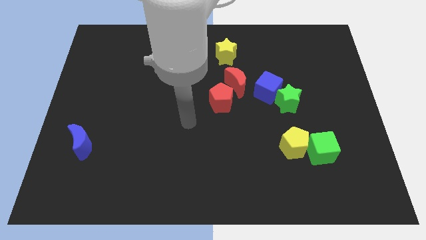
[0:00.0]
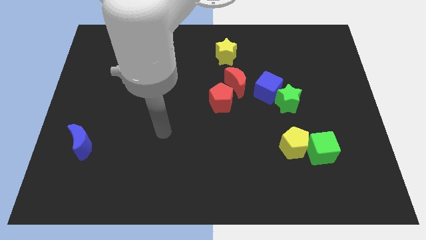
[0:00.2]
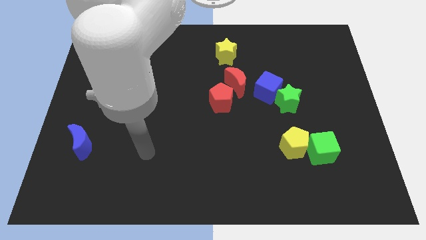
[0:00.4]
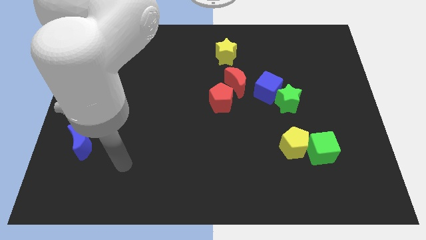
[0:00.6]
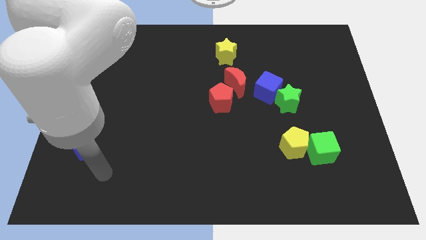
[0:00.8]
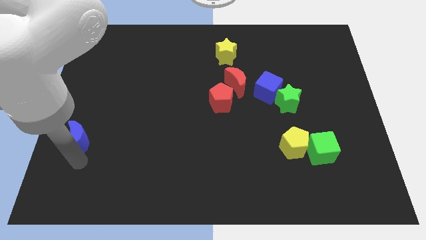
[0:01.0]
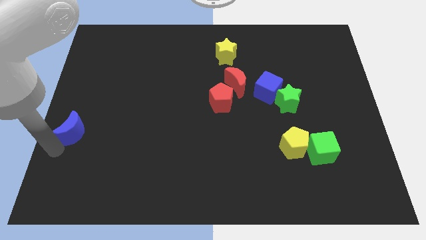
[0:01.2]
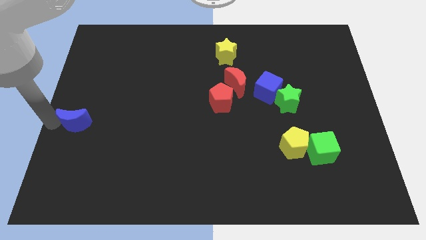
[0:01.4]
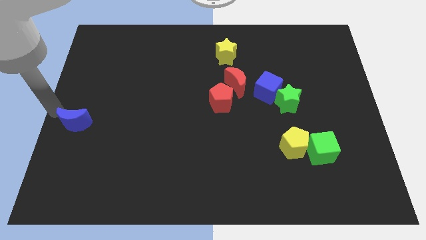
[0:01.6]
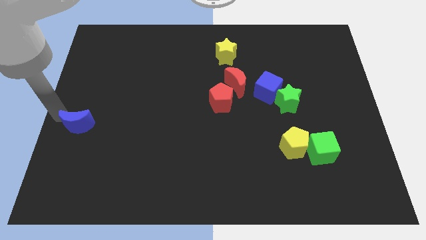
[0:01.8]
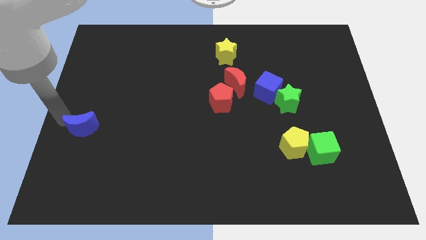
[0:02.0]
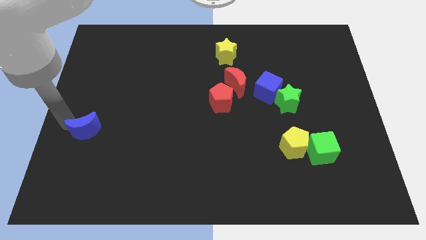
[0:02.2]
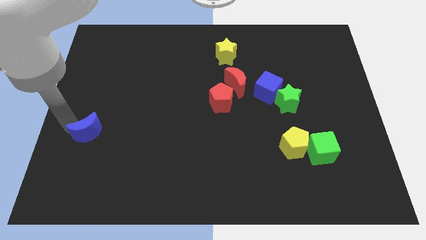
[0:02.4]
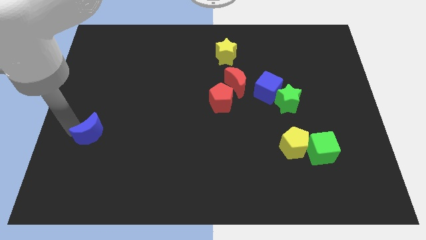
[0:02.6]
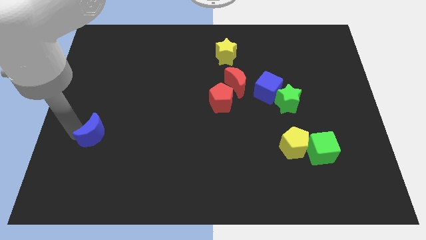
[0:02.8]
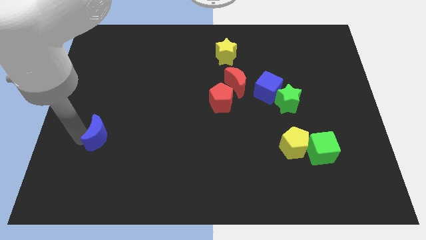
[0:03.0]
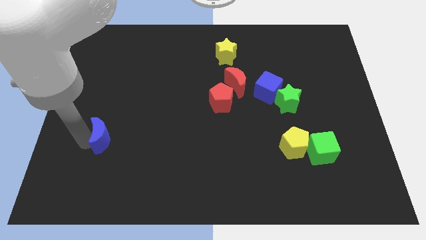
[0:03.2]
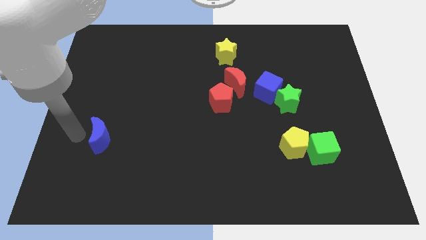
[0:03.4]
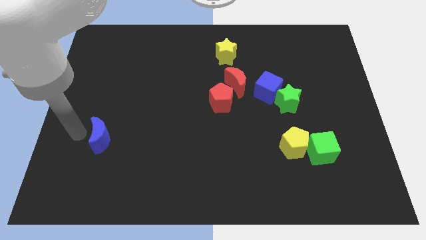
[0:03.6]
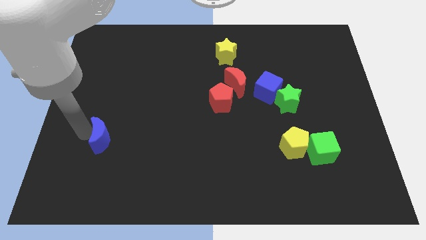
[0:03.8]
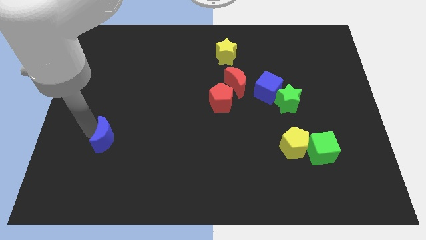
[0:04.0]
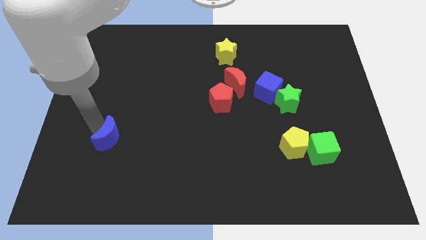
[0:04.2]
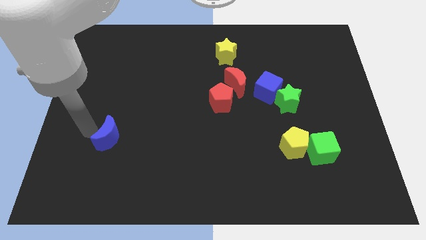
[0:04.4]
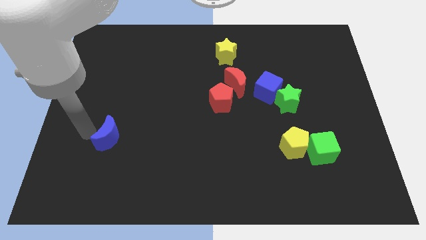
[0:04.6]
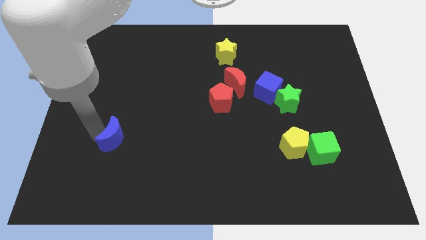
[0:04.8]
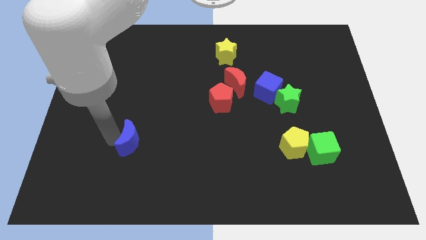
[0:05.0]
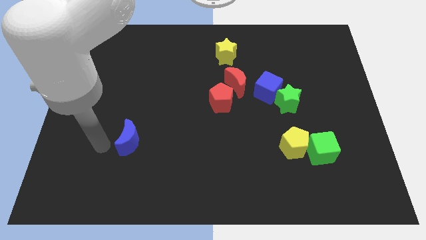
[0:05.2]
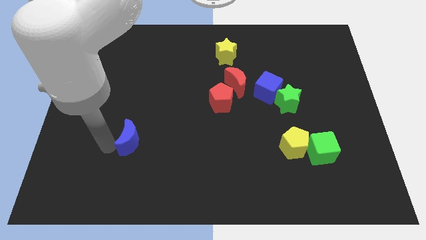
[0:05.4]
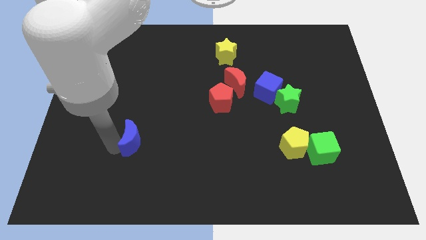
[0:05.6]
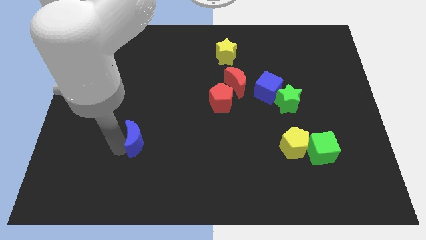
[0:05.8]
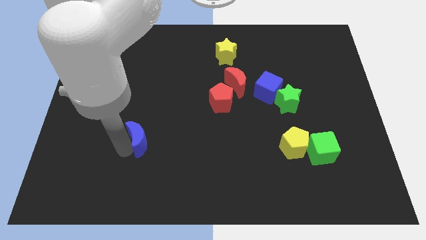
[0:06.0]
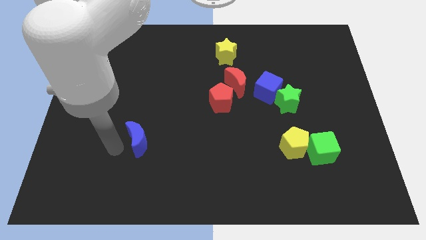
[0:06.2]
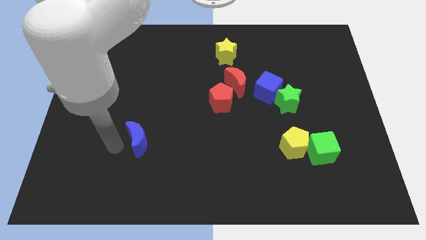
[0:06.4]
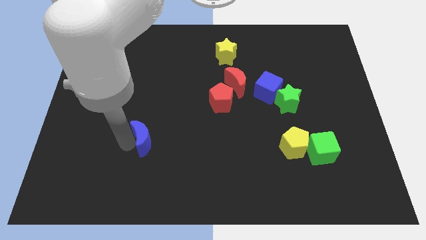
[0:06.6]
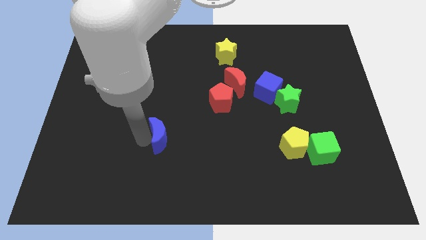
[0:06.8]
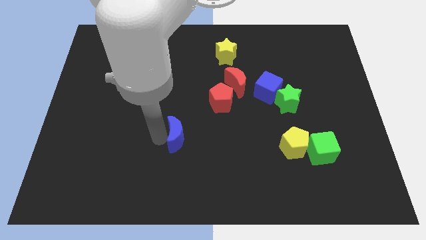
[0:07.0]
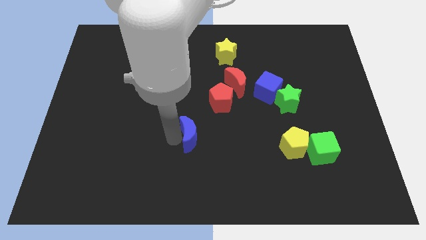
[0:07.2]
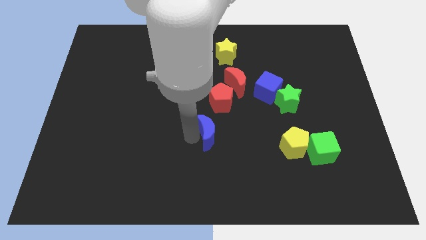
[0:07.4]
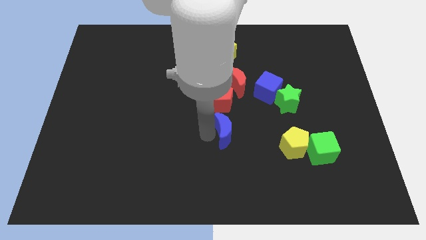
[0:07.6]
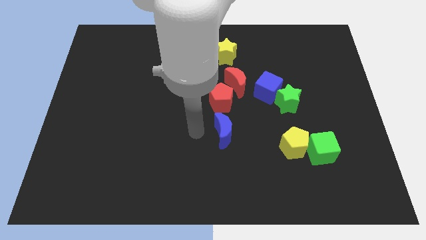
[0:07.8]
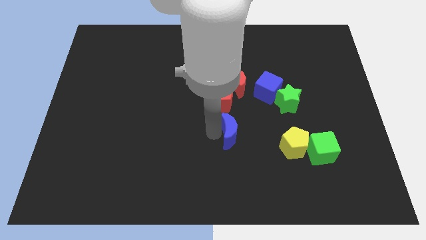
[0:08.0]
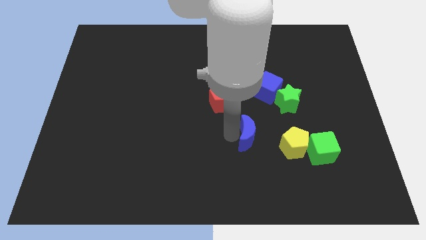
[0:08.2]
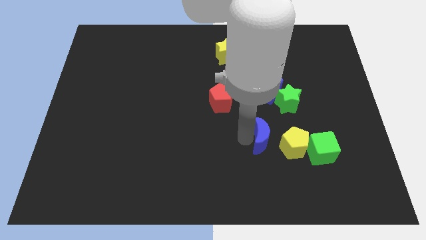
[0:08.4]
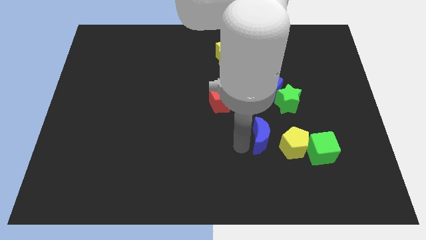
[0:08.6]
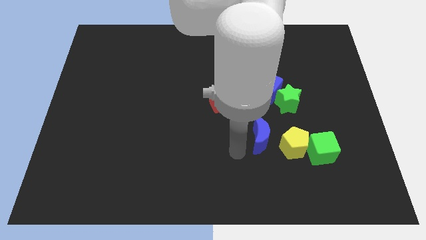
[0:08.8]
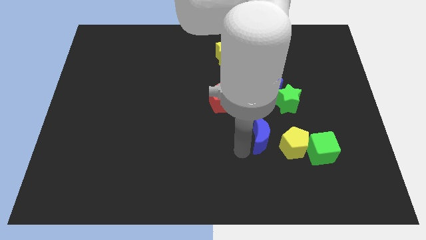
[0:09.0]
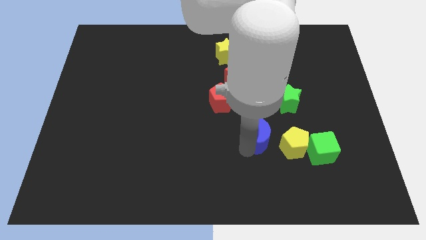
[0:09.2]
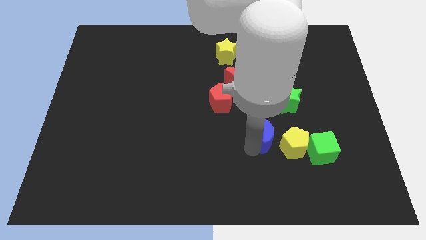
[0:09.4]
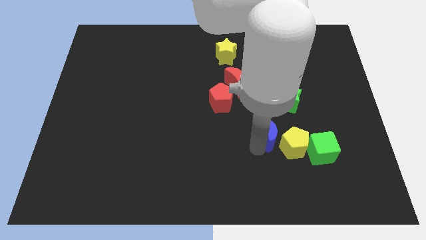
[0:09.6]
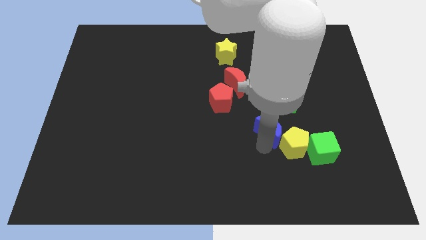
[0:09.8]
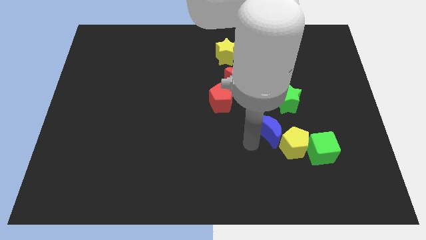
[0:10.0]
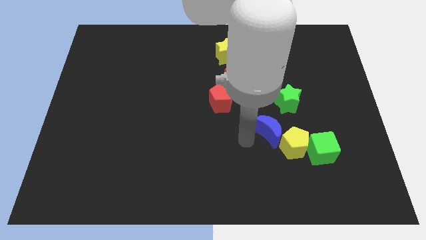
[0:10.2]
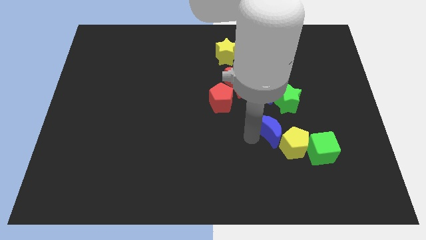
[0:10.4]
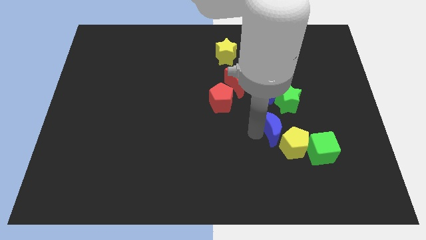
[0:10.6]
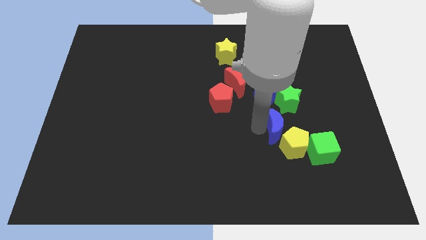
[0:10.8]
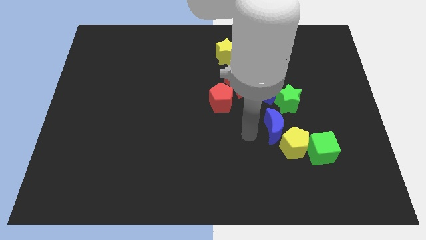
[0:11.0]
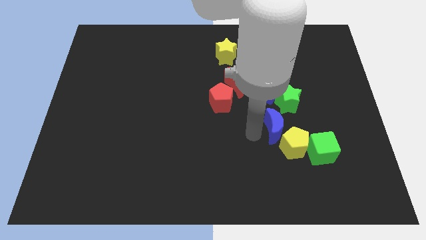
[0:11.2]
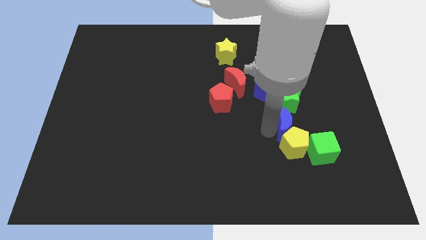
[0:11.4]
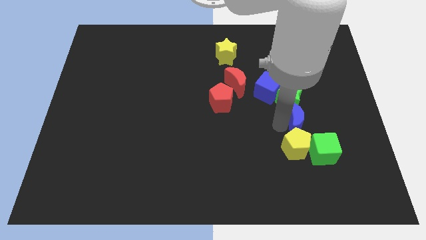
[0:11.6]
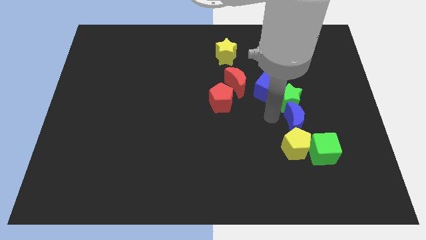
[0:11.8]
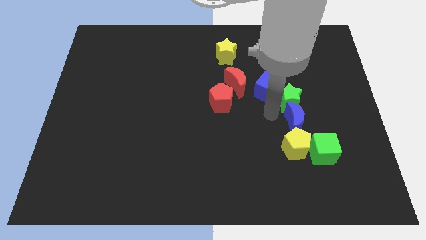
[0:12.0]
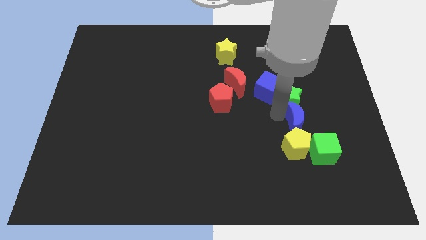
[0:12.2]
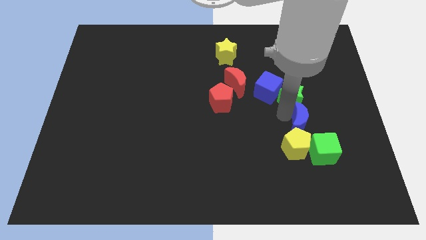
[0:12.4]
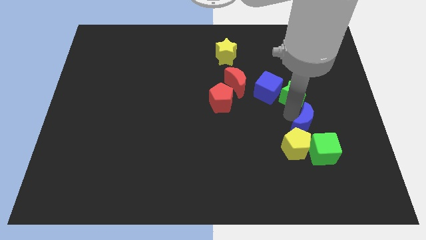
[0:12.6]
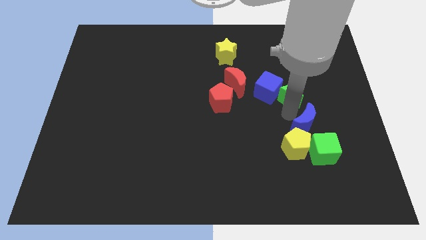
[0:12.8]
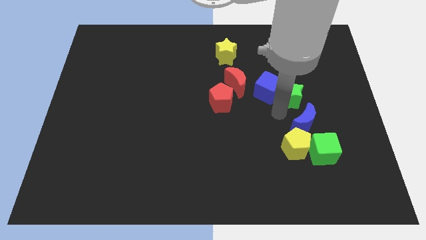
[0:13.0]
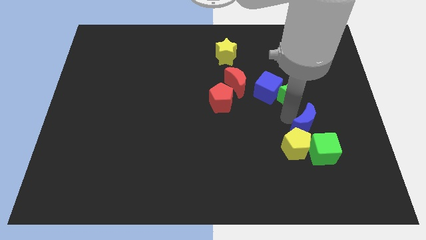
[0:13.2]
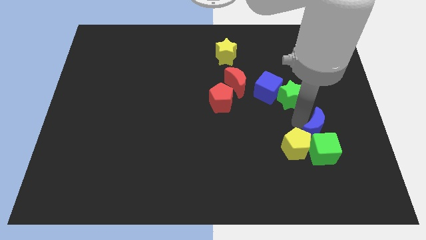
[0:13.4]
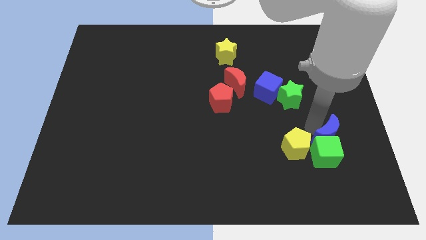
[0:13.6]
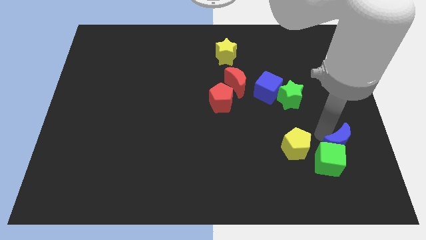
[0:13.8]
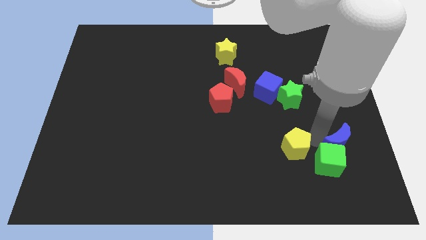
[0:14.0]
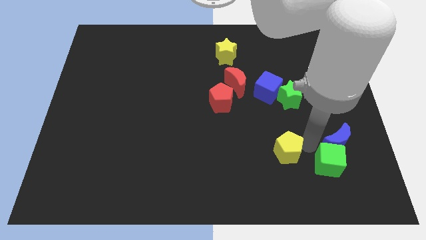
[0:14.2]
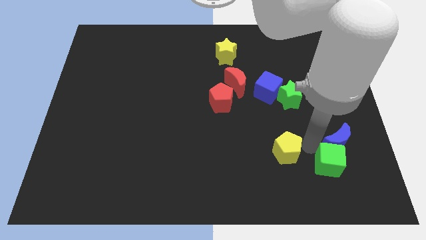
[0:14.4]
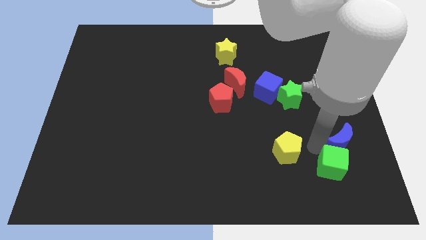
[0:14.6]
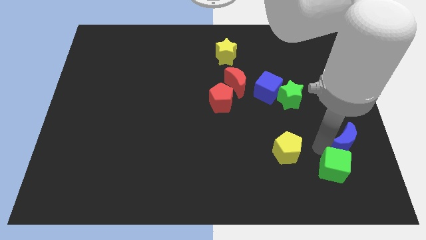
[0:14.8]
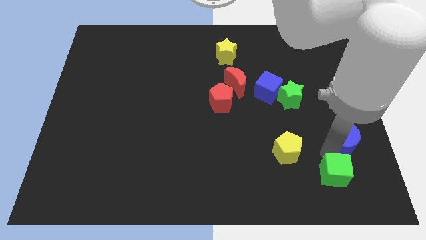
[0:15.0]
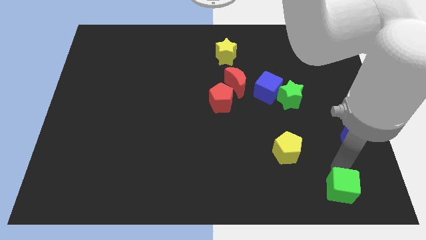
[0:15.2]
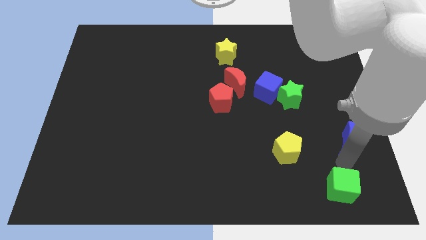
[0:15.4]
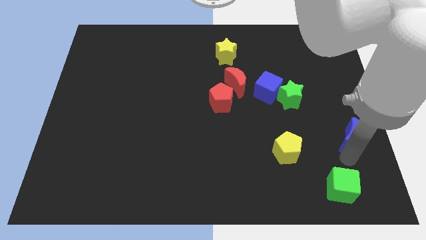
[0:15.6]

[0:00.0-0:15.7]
move the blue moon to the right side
